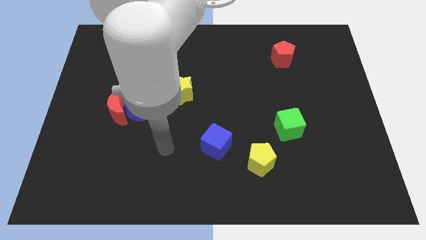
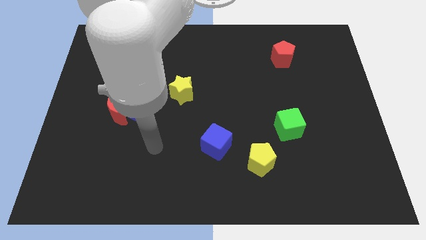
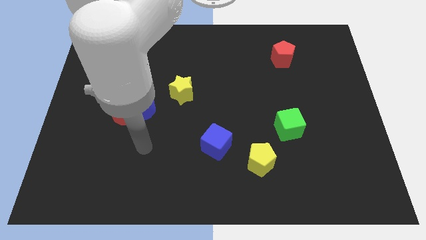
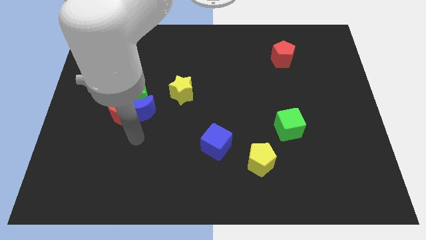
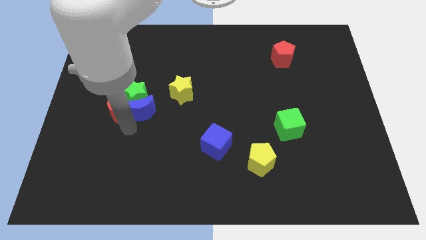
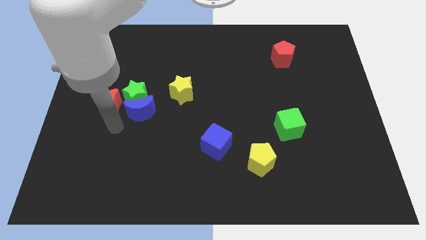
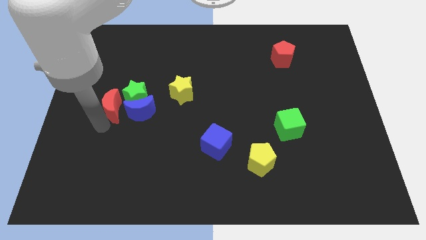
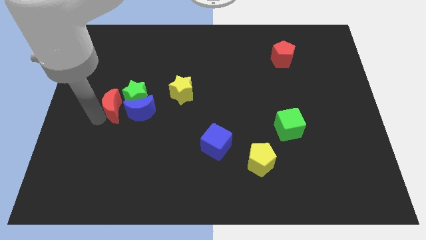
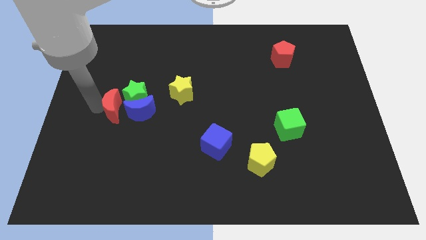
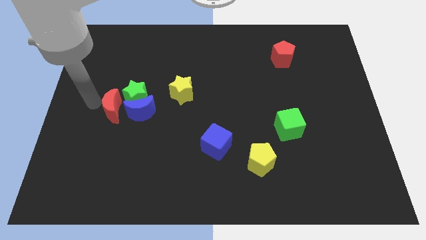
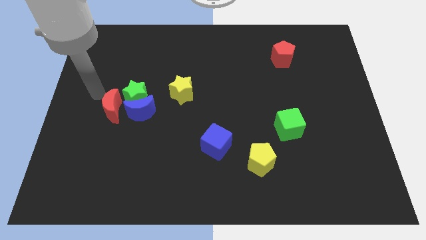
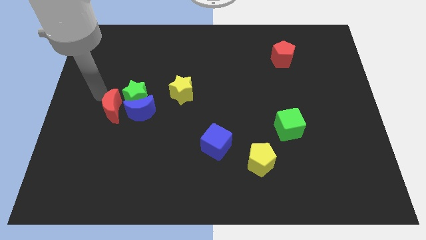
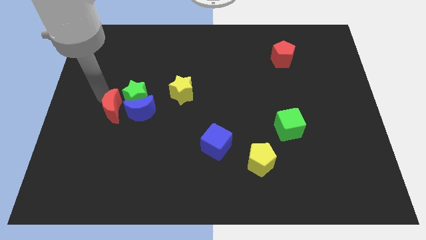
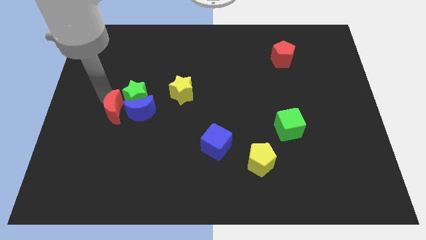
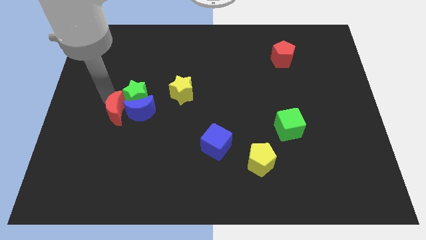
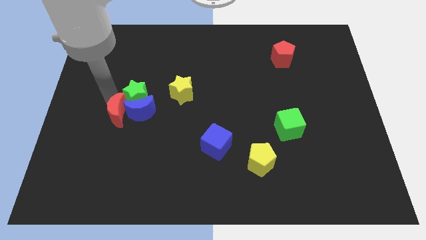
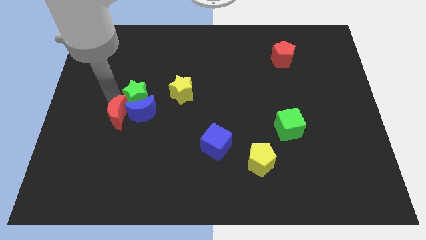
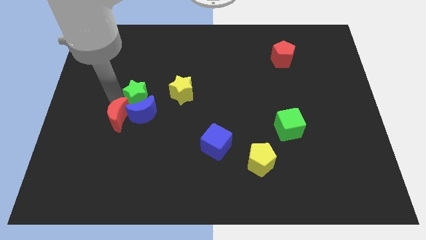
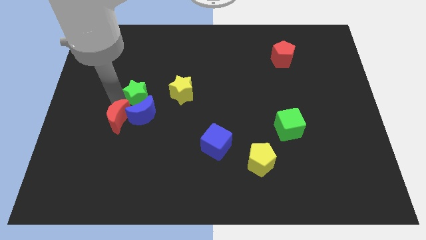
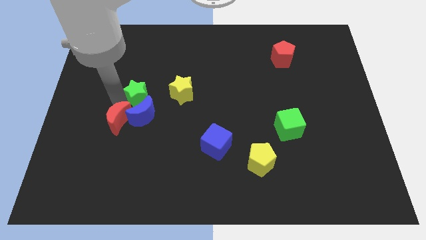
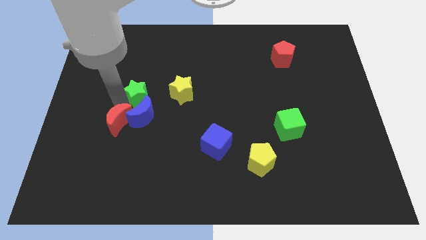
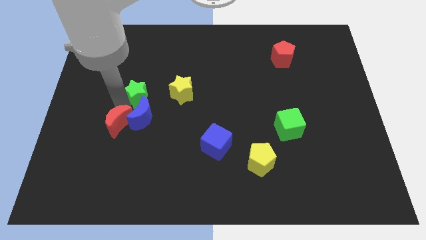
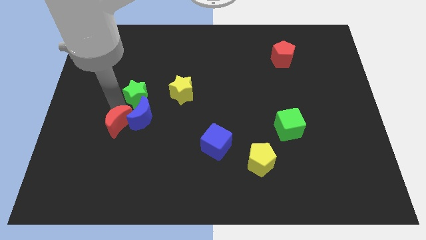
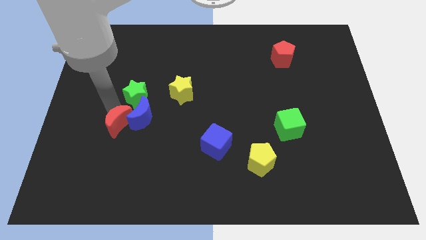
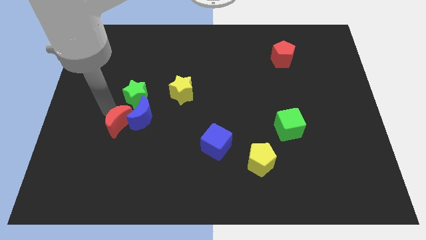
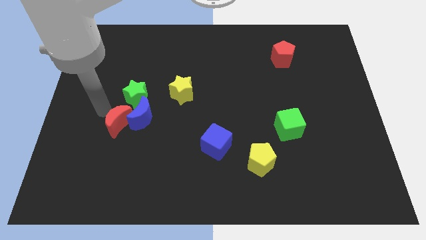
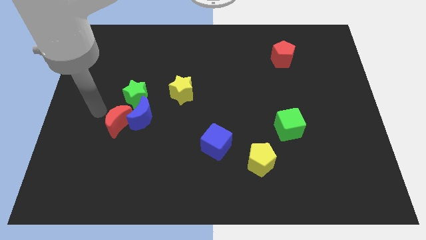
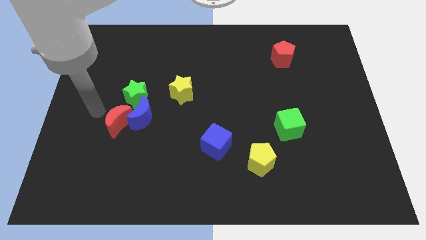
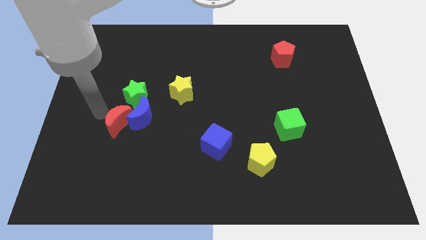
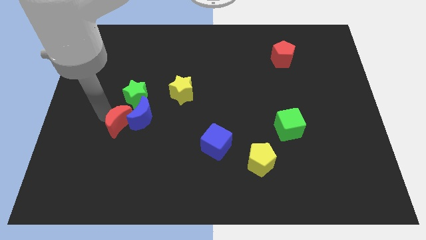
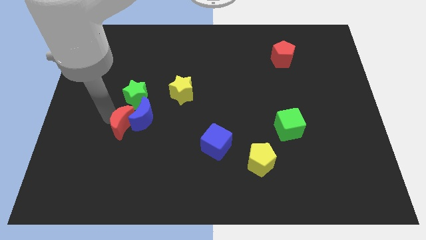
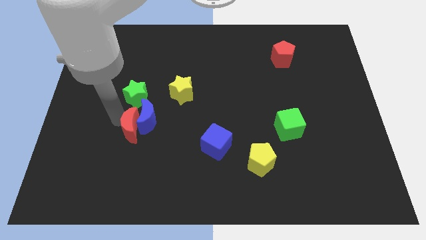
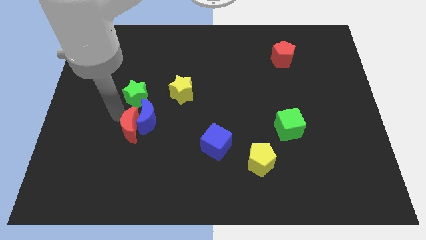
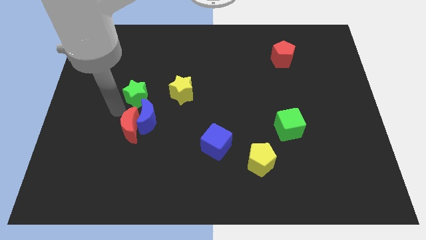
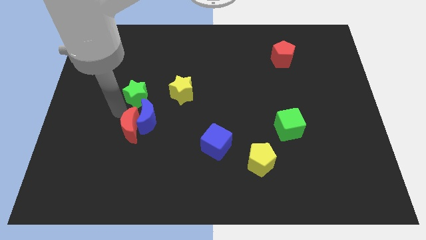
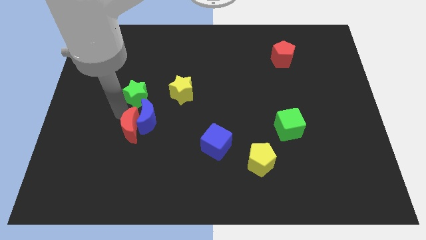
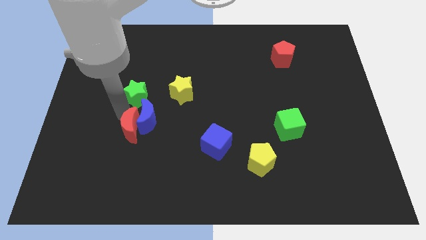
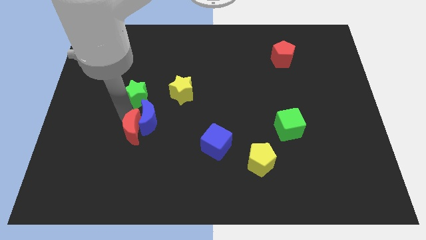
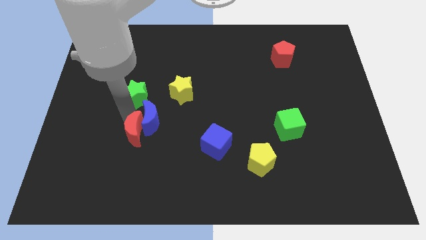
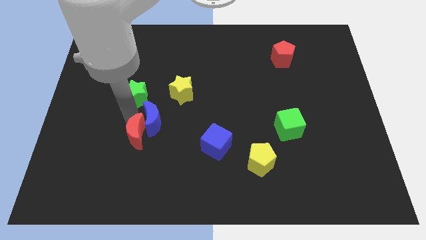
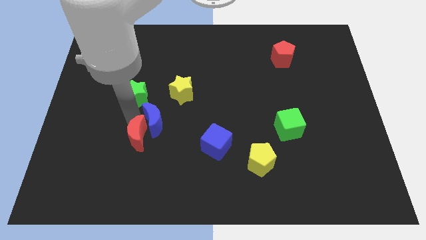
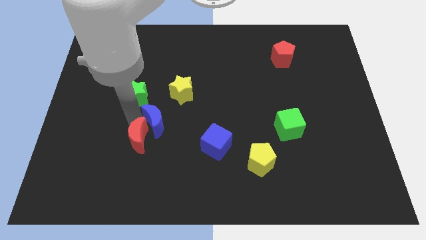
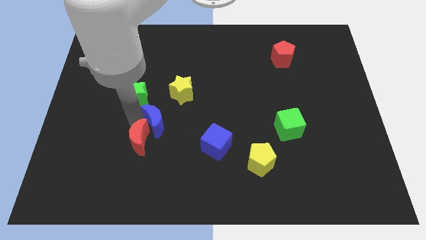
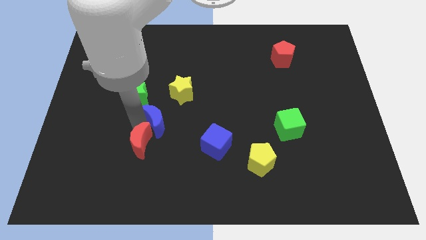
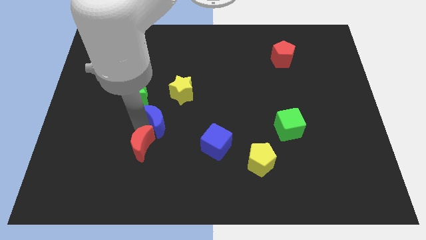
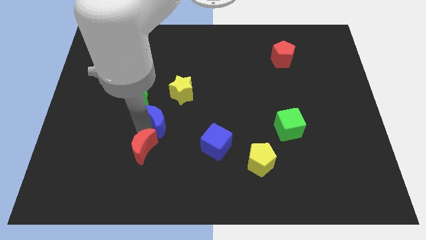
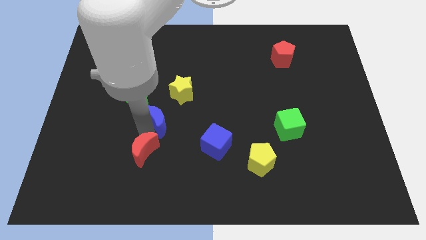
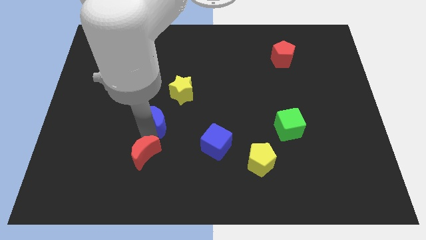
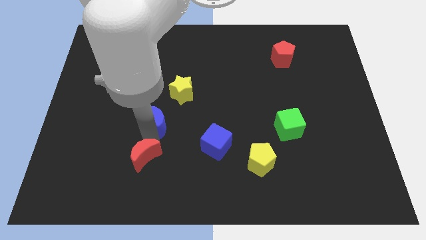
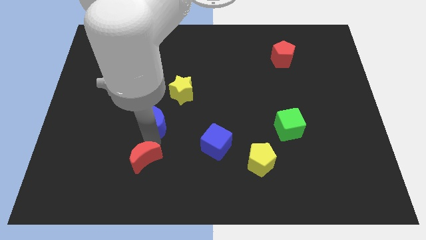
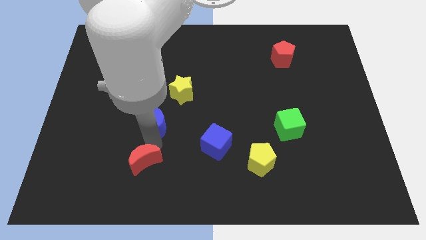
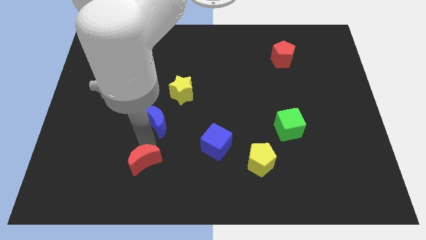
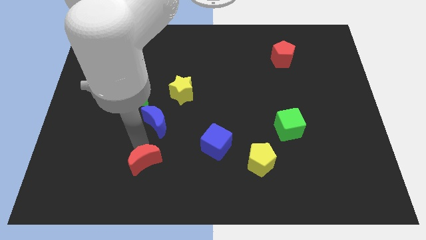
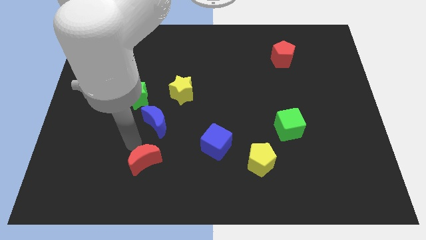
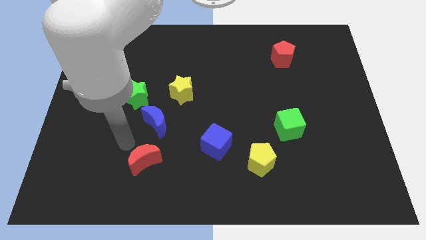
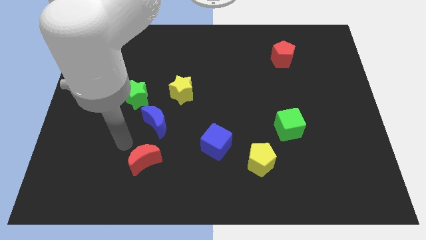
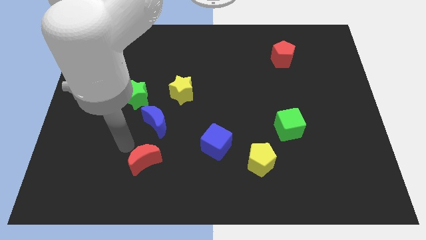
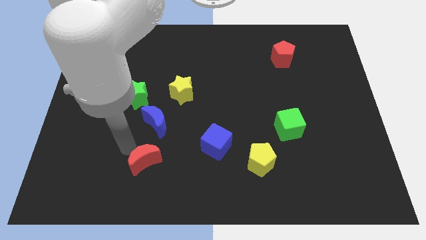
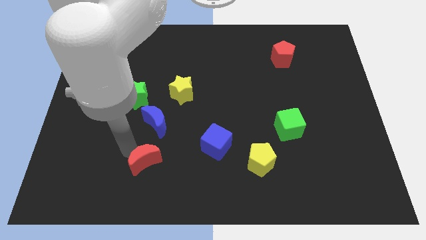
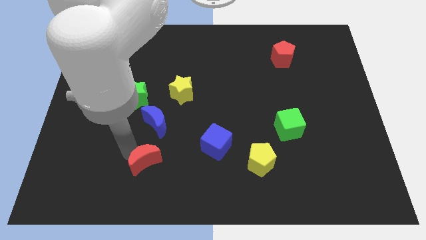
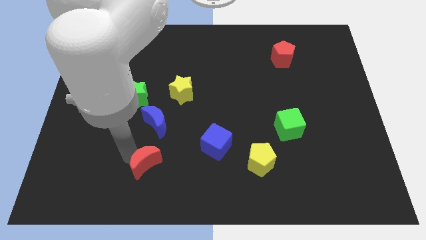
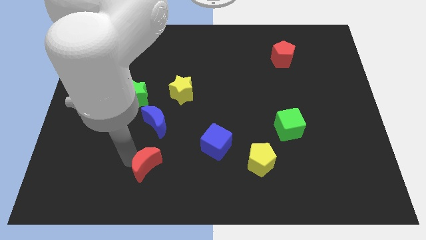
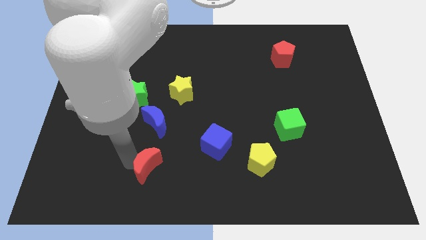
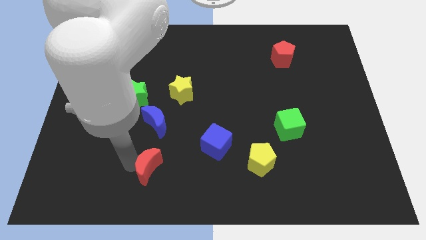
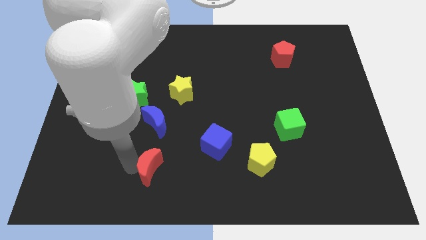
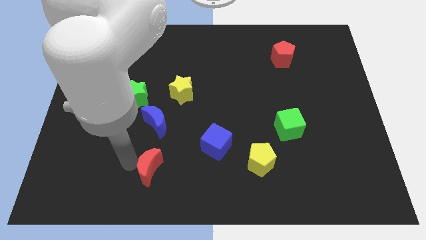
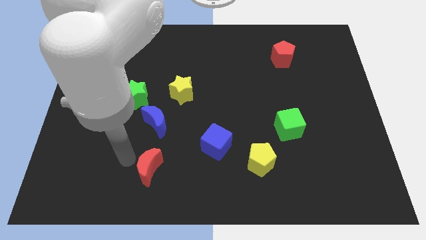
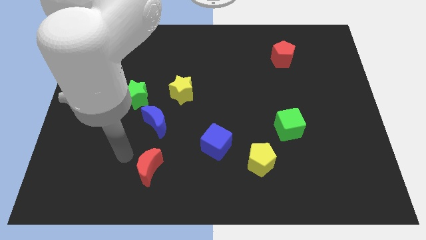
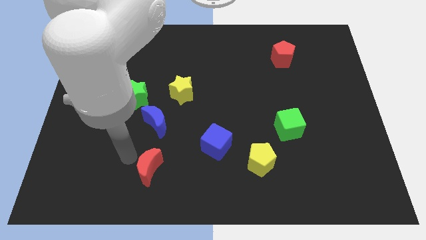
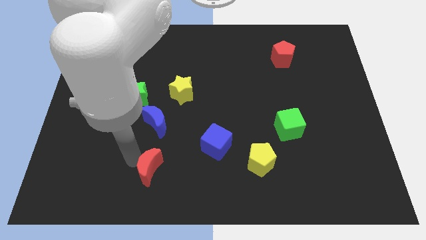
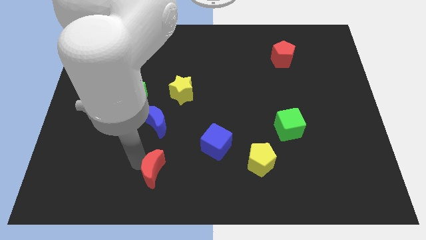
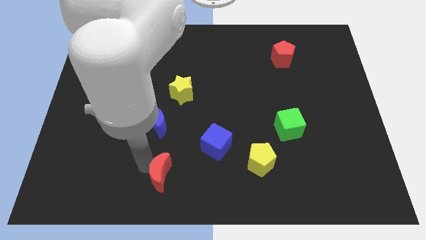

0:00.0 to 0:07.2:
push the red moon to the bottom side
